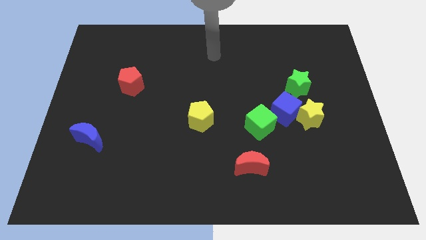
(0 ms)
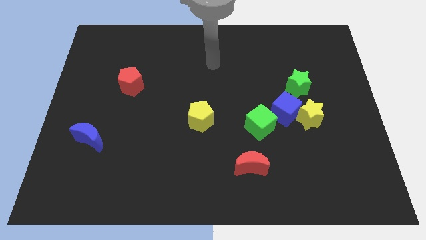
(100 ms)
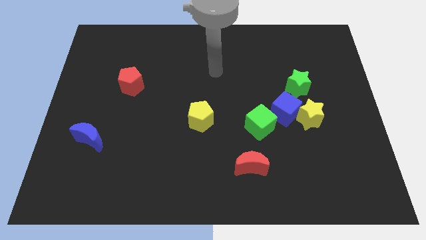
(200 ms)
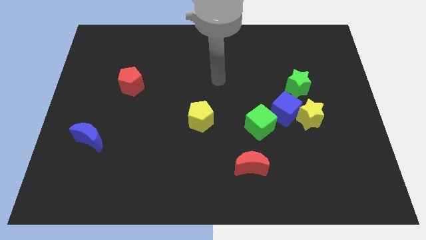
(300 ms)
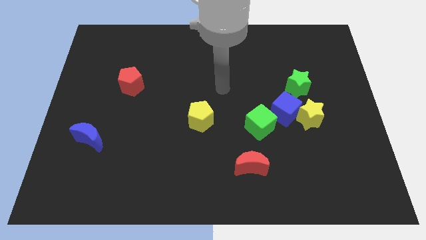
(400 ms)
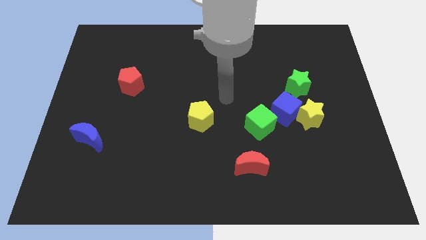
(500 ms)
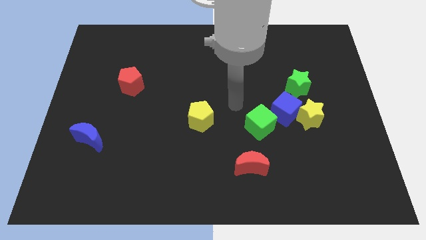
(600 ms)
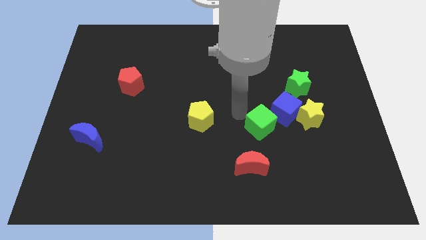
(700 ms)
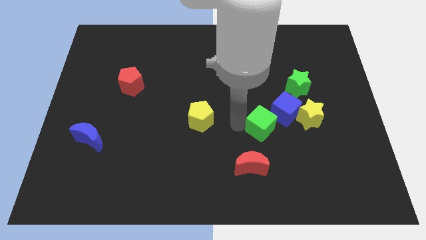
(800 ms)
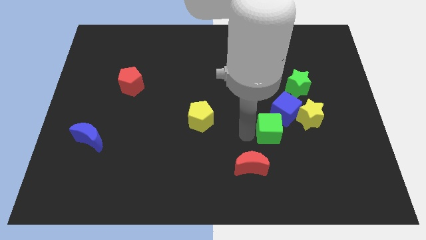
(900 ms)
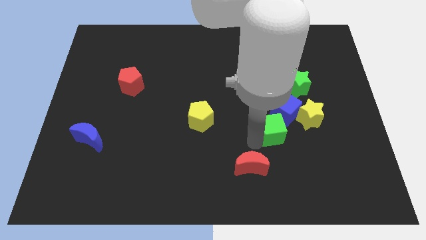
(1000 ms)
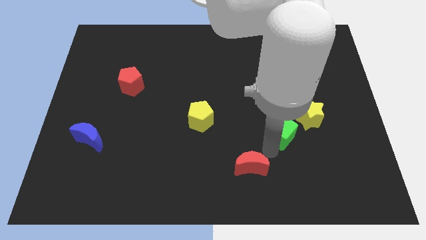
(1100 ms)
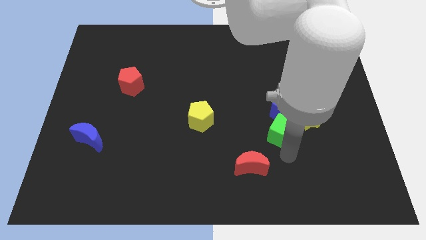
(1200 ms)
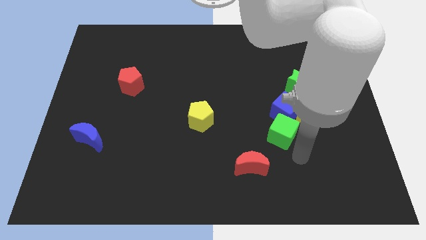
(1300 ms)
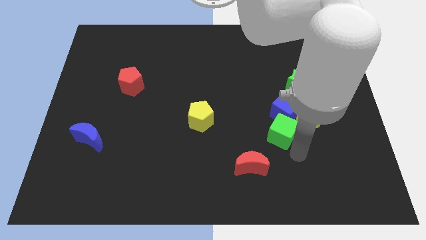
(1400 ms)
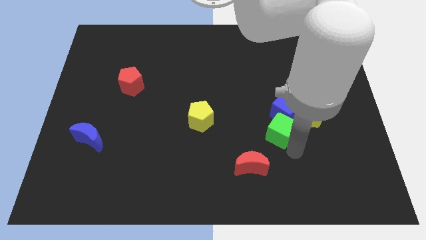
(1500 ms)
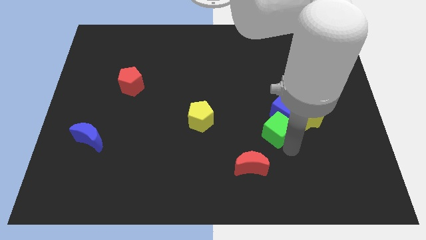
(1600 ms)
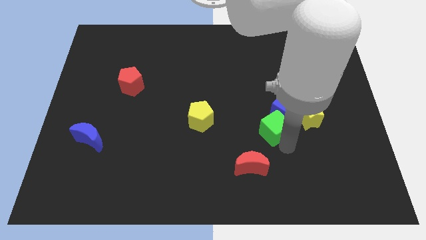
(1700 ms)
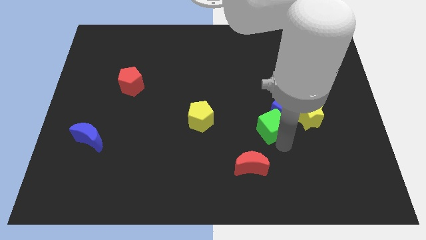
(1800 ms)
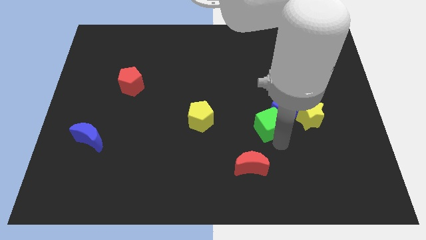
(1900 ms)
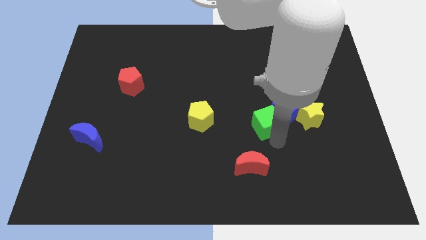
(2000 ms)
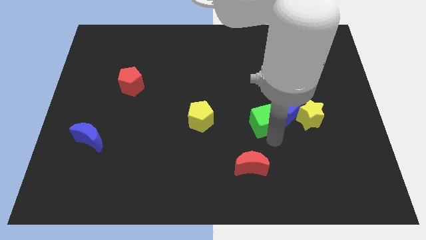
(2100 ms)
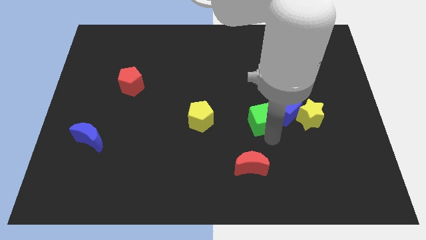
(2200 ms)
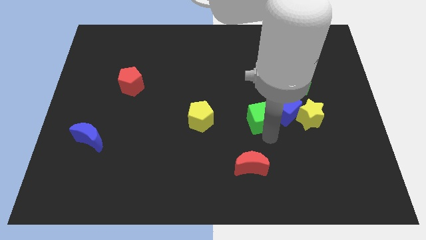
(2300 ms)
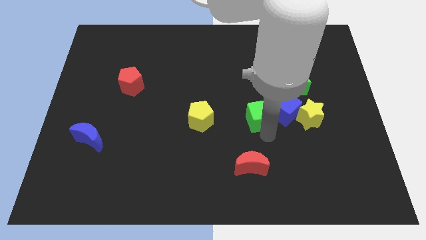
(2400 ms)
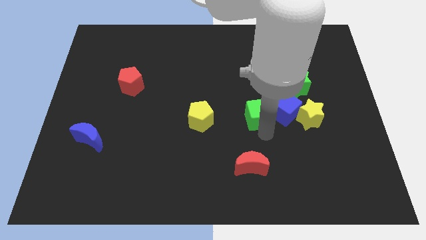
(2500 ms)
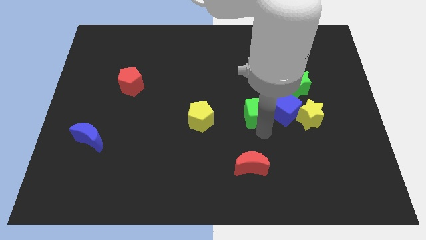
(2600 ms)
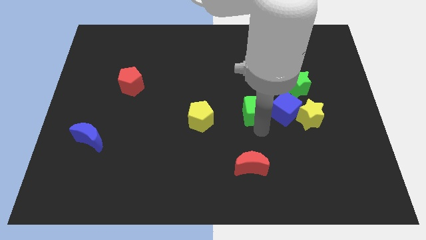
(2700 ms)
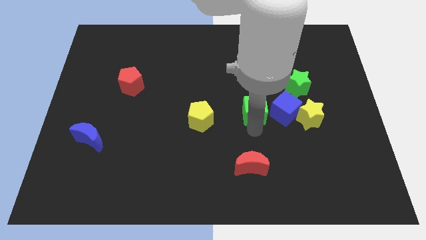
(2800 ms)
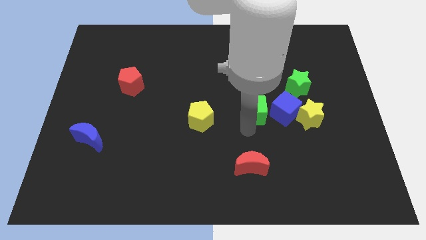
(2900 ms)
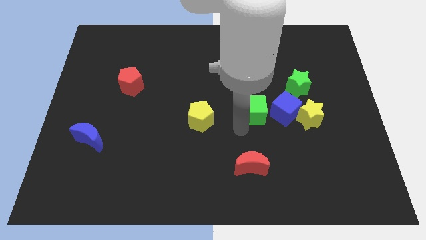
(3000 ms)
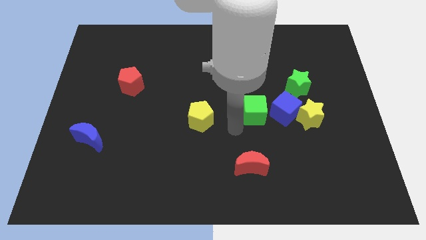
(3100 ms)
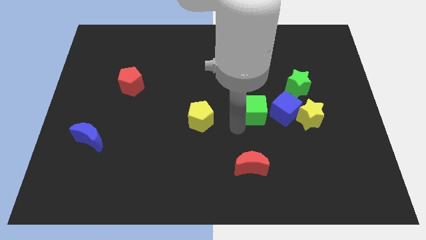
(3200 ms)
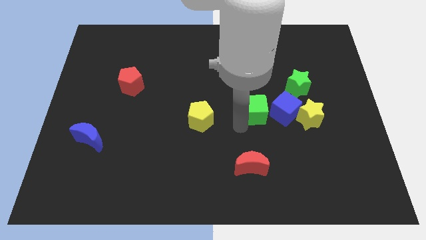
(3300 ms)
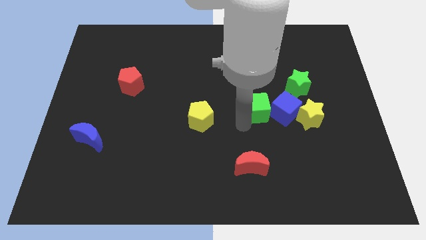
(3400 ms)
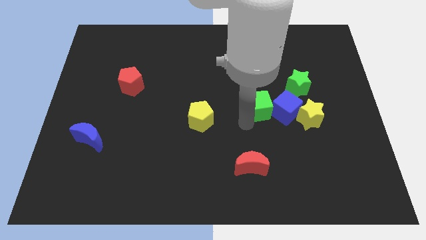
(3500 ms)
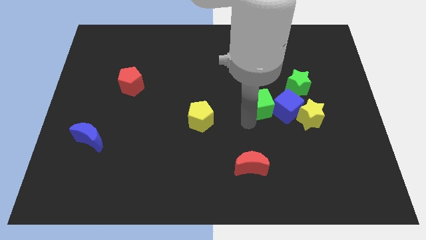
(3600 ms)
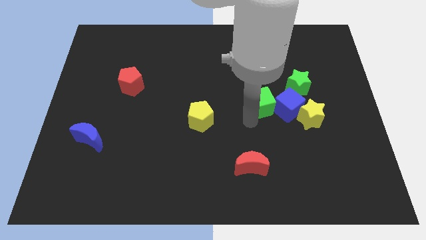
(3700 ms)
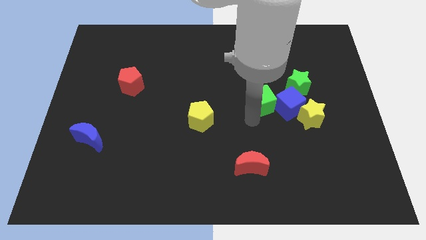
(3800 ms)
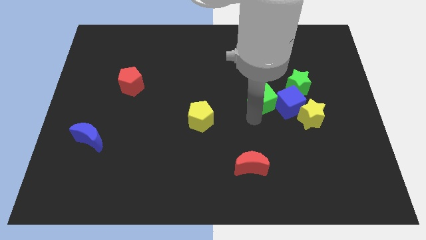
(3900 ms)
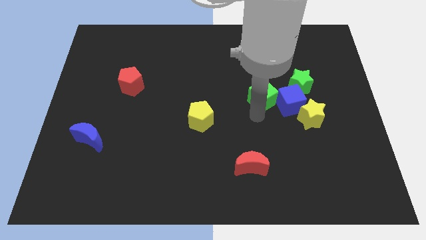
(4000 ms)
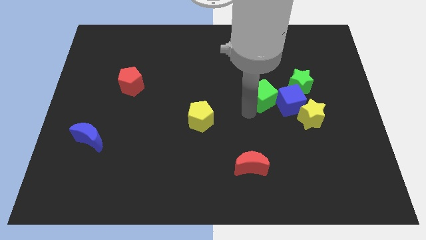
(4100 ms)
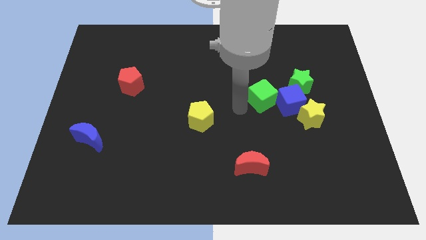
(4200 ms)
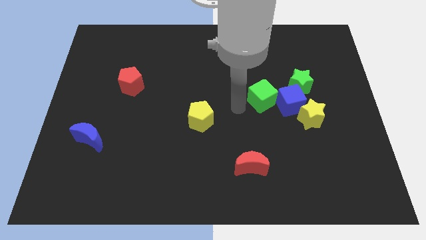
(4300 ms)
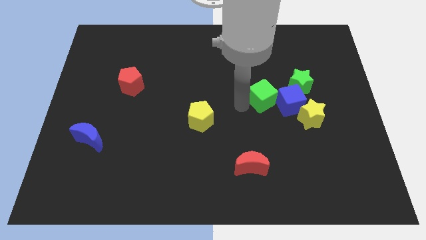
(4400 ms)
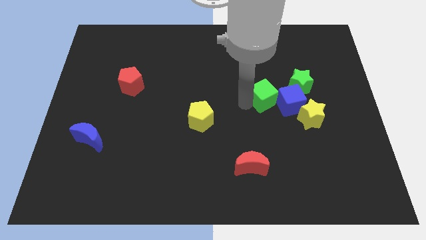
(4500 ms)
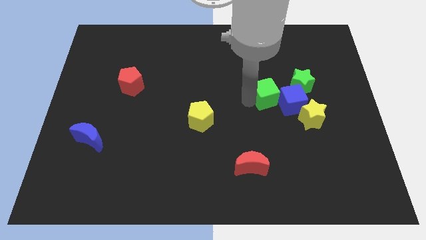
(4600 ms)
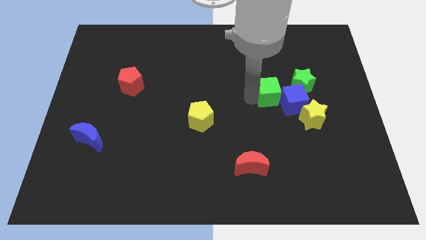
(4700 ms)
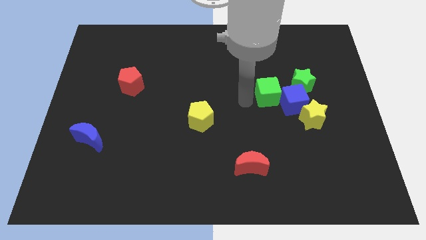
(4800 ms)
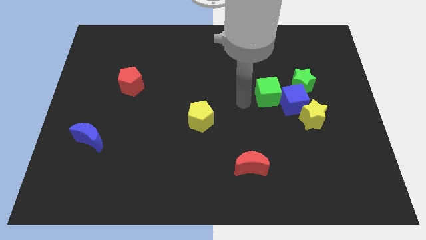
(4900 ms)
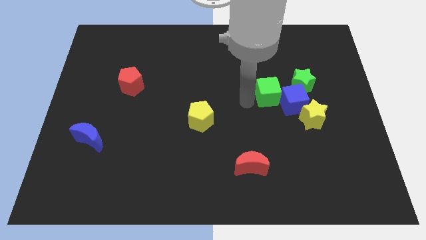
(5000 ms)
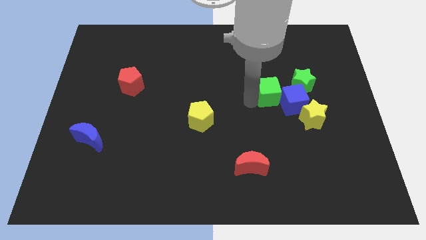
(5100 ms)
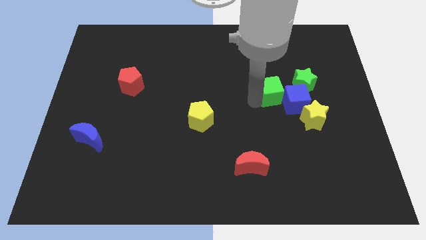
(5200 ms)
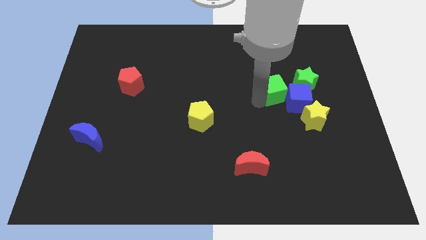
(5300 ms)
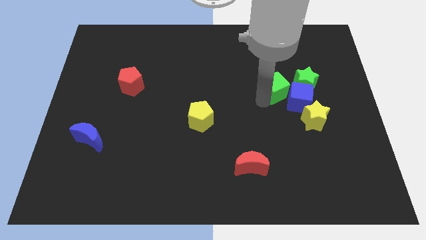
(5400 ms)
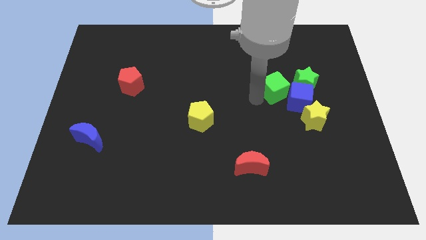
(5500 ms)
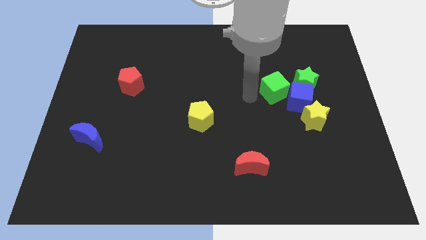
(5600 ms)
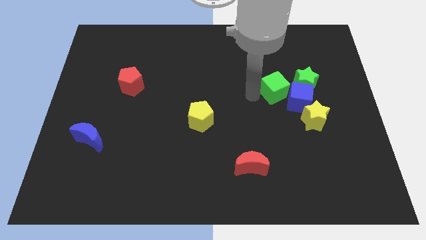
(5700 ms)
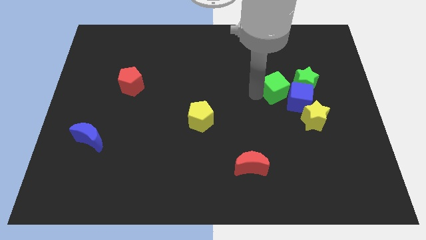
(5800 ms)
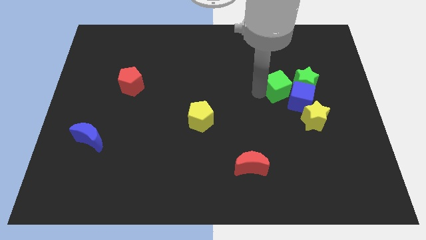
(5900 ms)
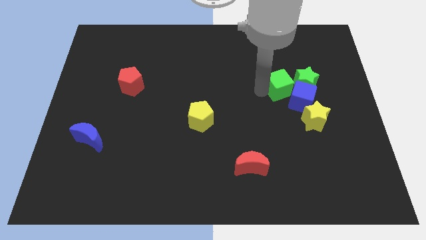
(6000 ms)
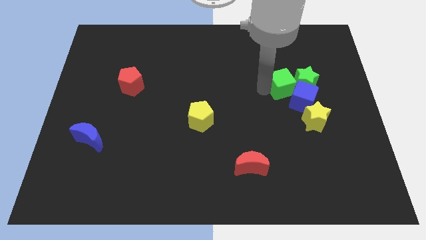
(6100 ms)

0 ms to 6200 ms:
slide the green cube towards the green star
